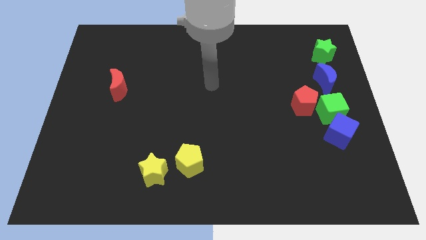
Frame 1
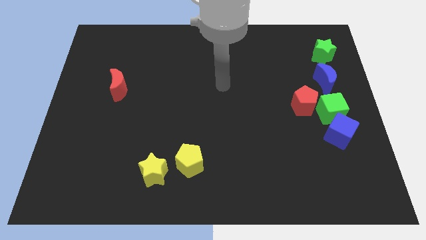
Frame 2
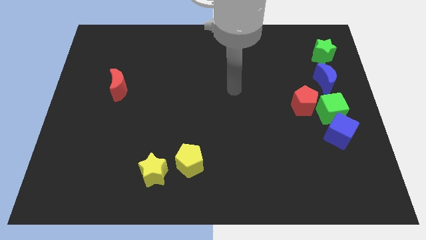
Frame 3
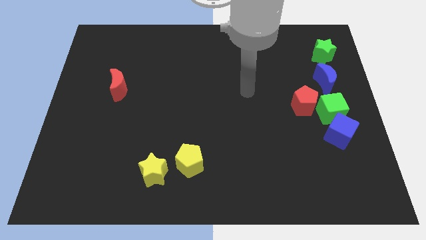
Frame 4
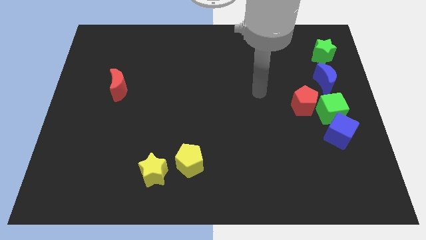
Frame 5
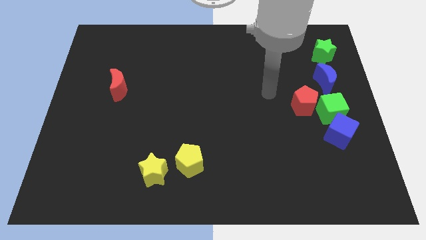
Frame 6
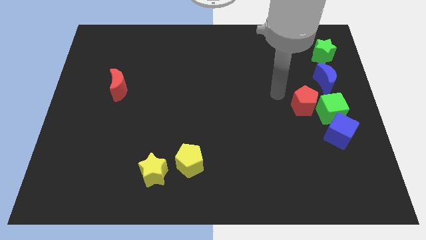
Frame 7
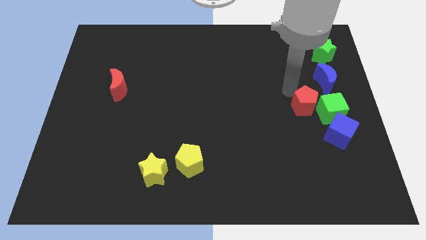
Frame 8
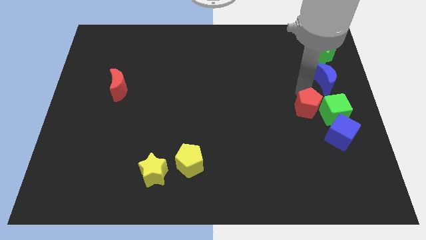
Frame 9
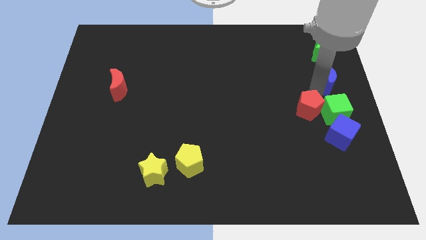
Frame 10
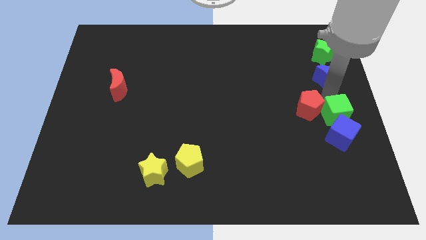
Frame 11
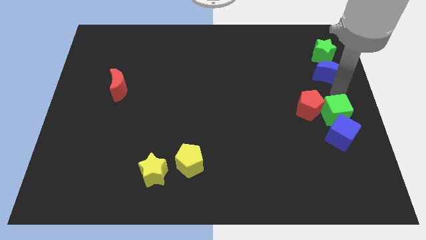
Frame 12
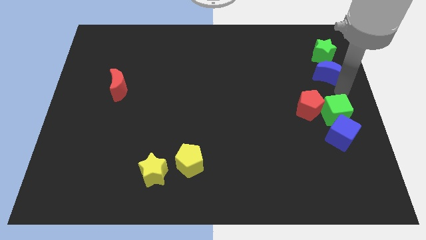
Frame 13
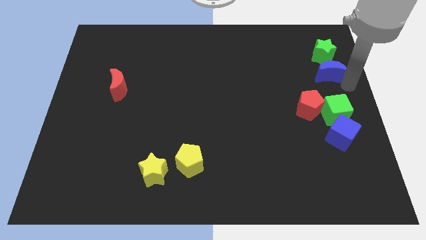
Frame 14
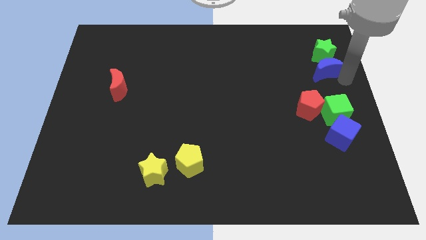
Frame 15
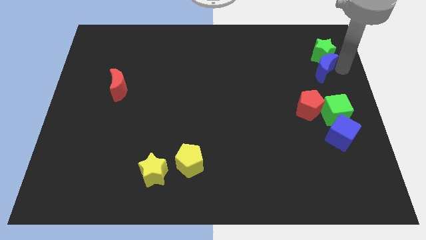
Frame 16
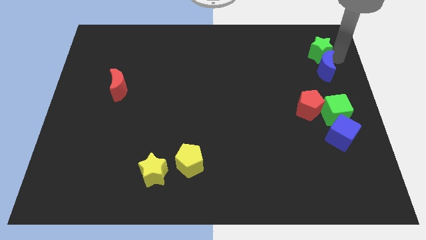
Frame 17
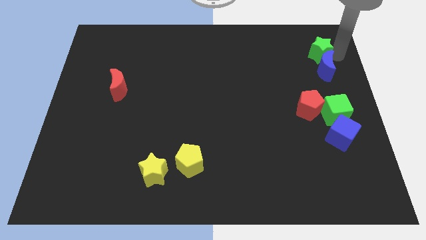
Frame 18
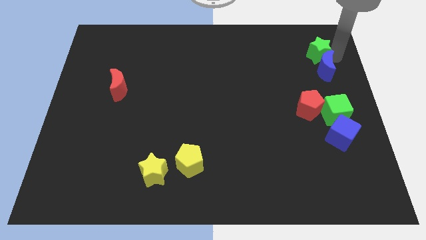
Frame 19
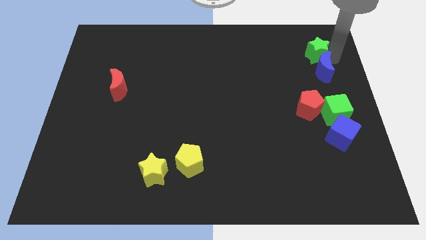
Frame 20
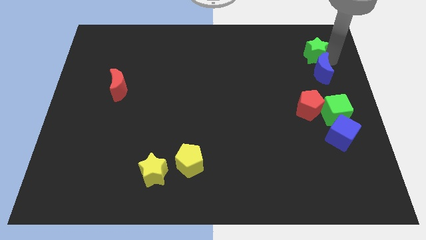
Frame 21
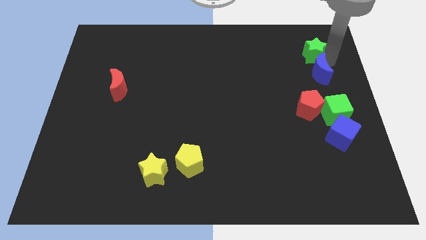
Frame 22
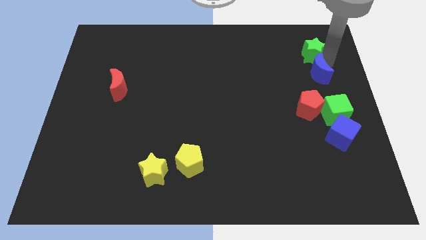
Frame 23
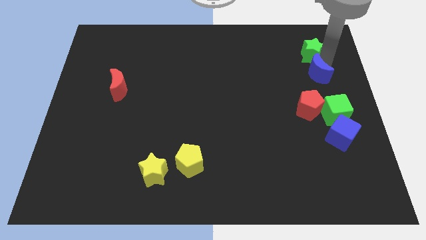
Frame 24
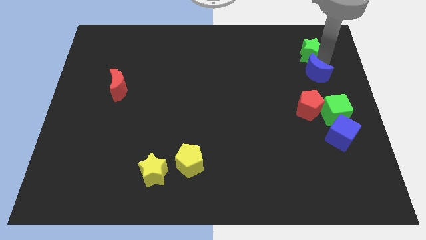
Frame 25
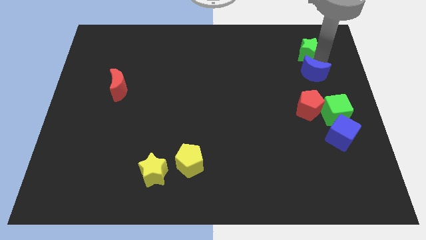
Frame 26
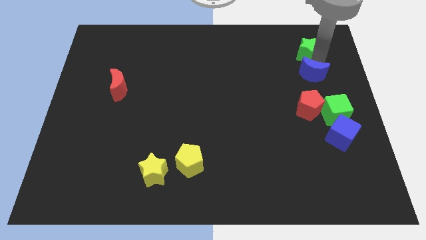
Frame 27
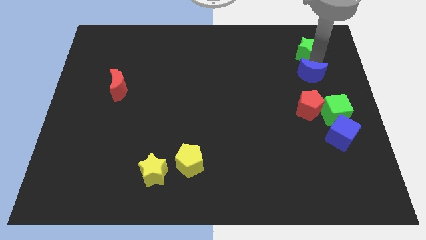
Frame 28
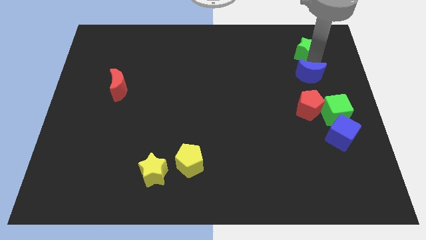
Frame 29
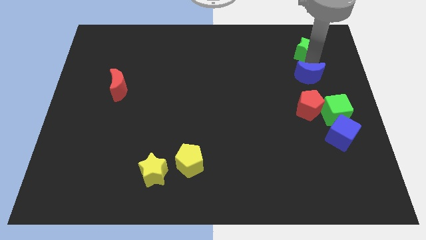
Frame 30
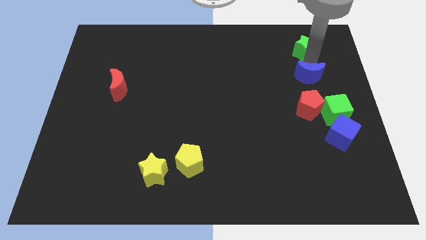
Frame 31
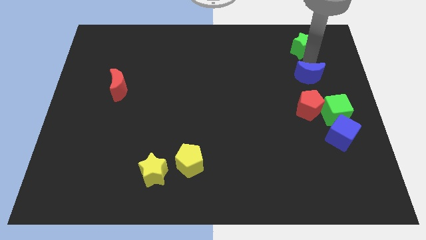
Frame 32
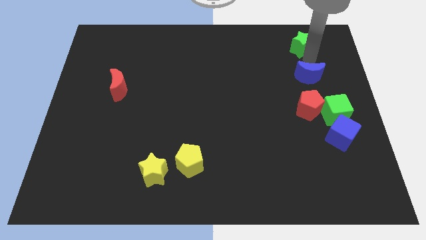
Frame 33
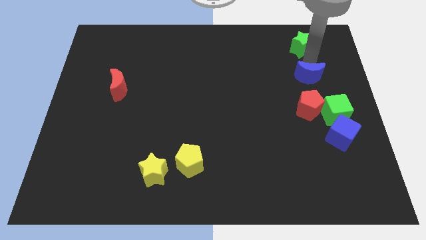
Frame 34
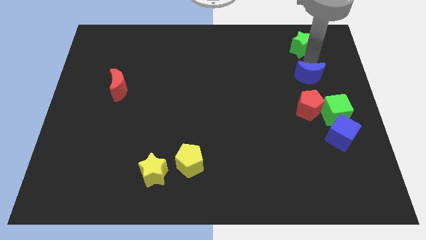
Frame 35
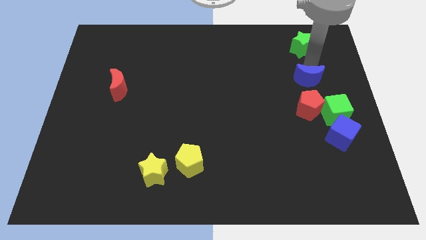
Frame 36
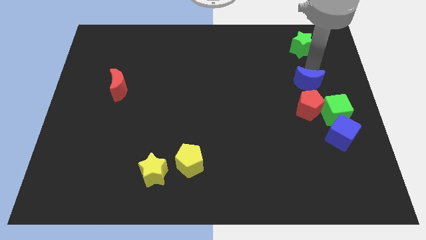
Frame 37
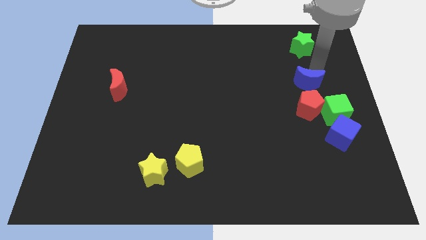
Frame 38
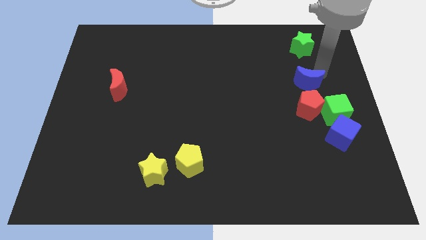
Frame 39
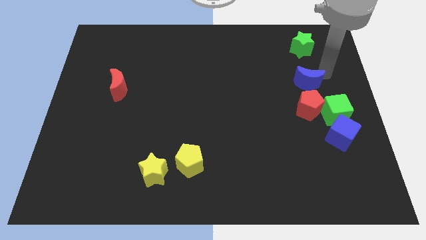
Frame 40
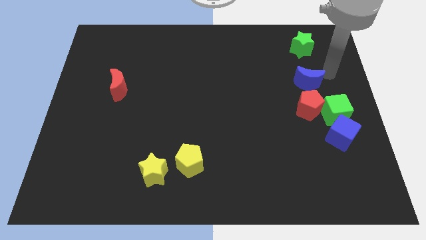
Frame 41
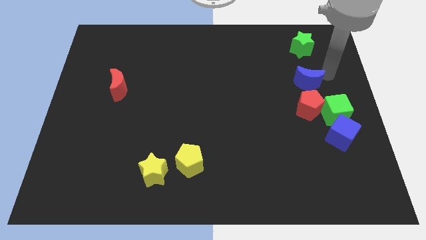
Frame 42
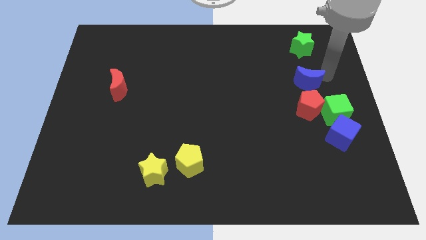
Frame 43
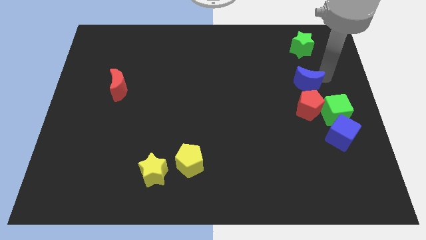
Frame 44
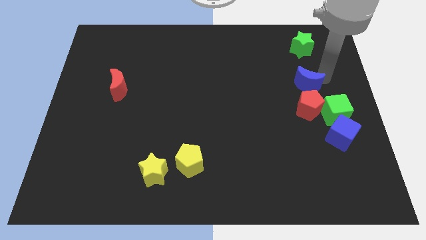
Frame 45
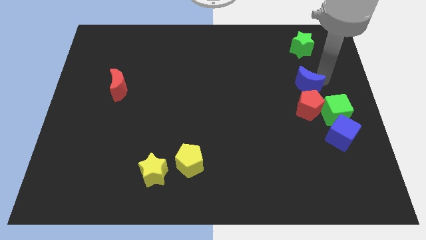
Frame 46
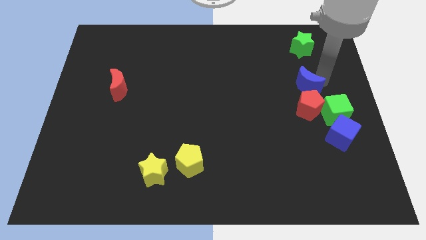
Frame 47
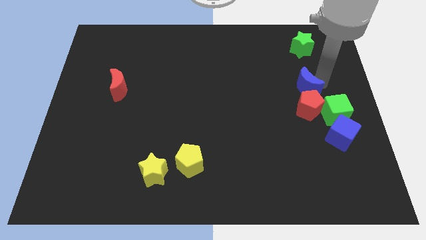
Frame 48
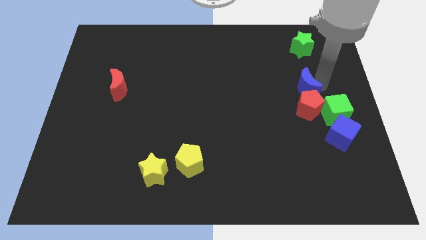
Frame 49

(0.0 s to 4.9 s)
move the blue moon diagonally up and to the left of the red pentagon

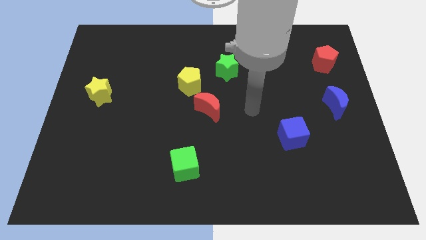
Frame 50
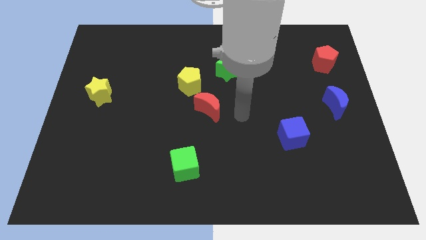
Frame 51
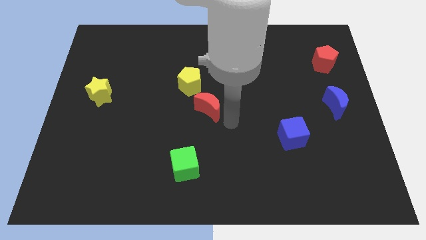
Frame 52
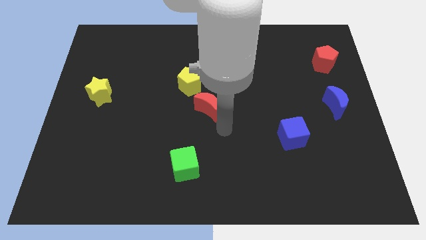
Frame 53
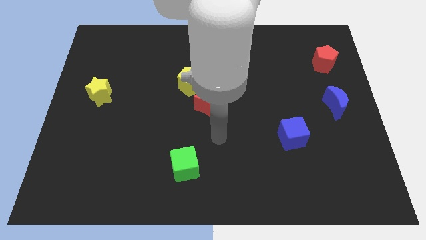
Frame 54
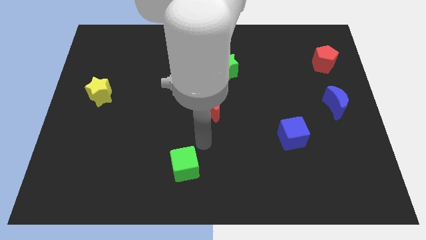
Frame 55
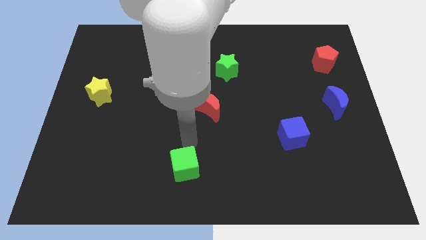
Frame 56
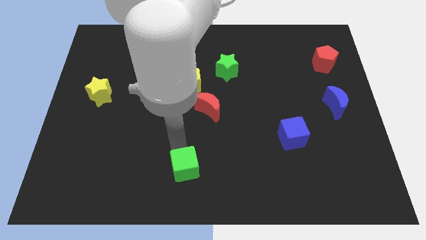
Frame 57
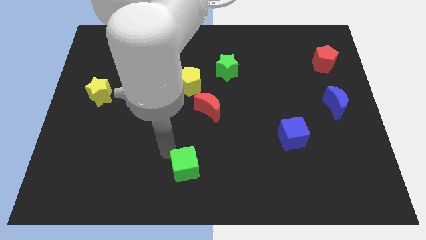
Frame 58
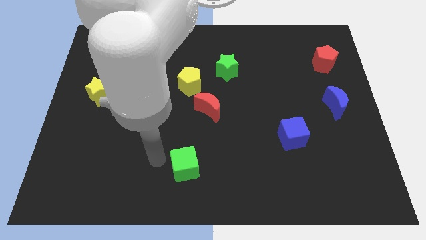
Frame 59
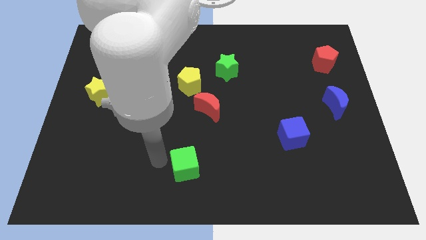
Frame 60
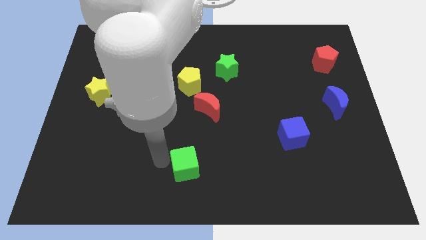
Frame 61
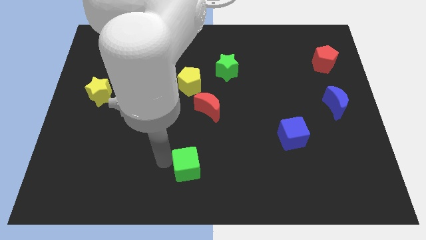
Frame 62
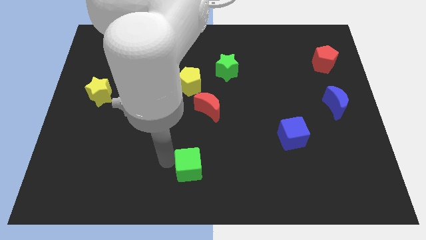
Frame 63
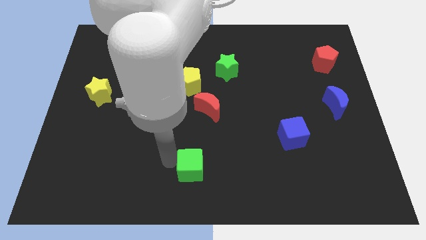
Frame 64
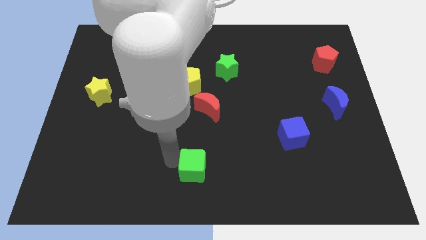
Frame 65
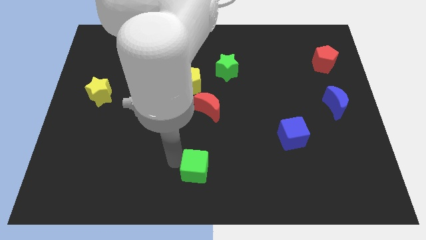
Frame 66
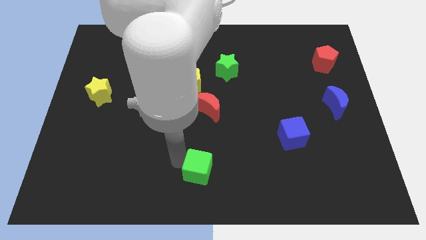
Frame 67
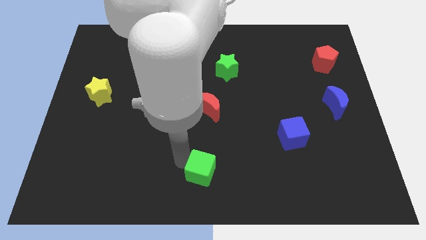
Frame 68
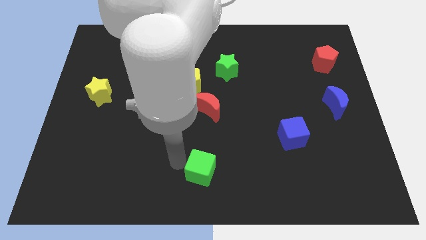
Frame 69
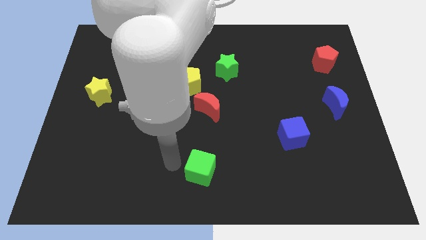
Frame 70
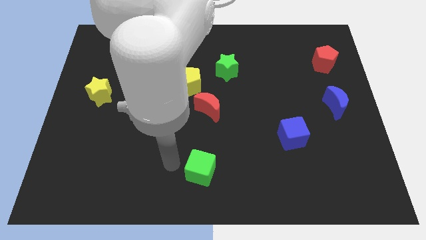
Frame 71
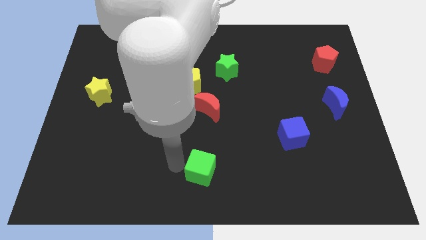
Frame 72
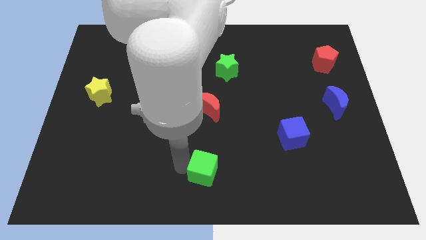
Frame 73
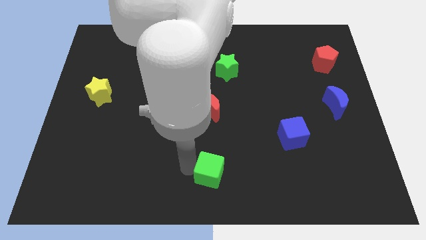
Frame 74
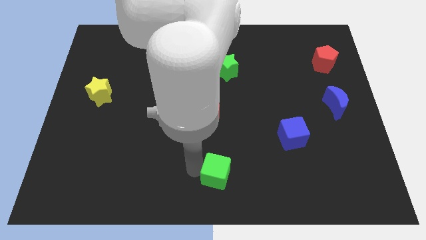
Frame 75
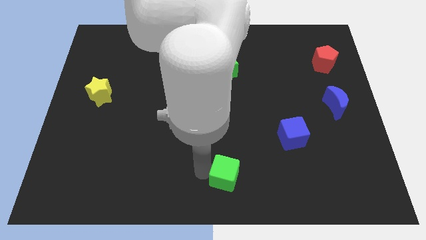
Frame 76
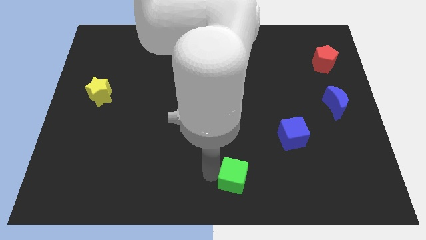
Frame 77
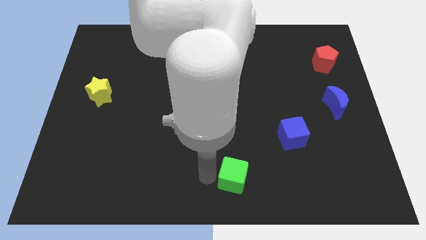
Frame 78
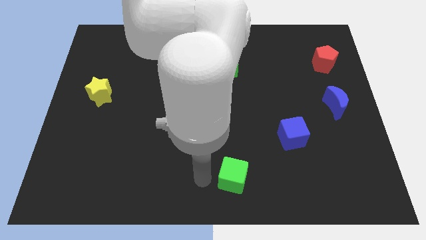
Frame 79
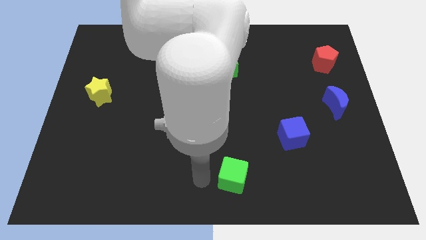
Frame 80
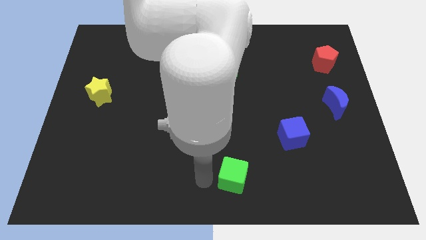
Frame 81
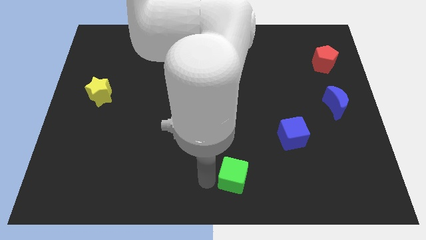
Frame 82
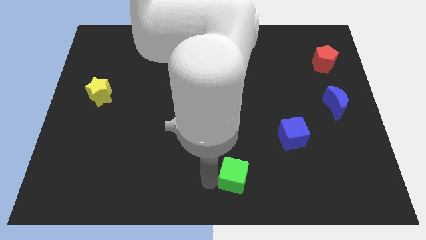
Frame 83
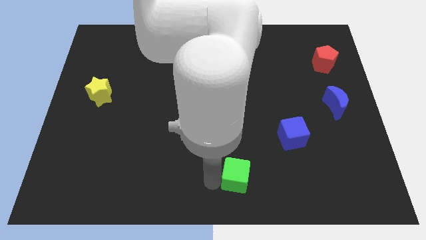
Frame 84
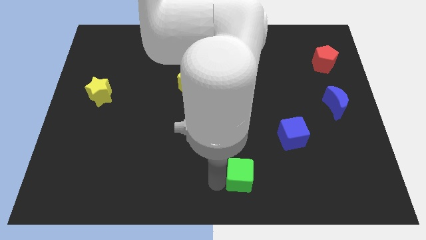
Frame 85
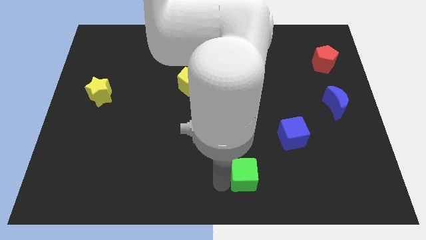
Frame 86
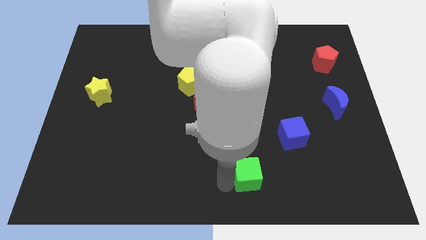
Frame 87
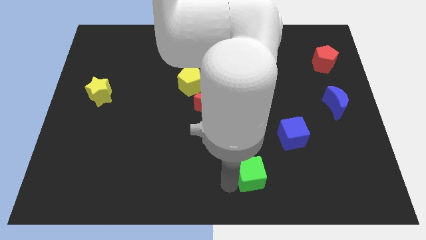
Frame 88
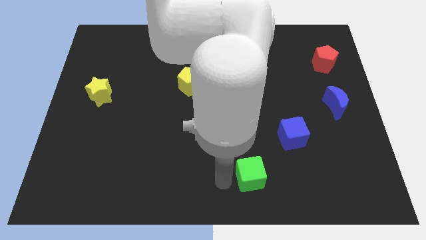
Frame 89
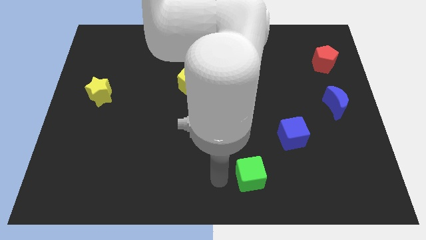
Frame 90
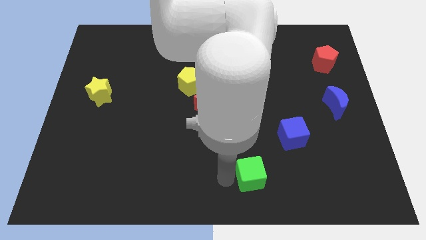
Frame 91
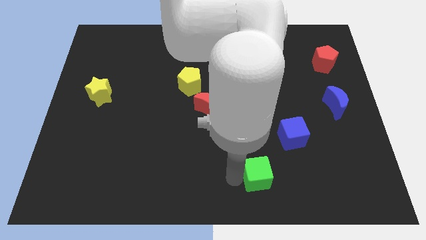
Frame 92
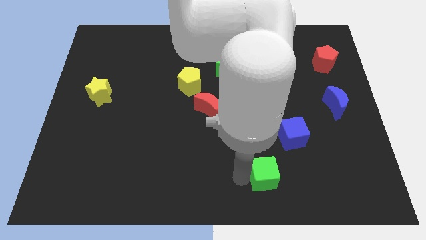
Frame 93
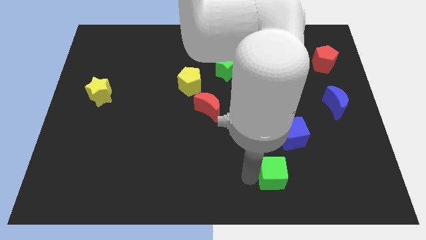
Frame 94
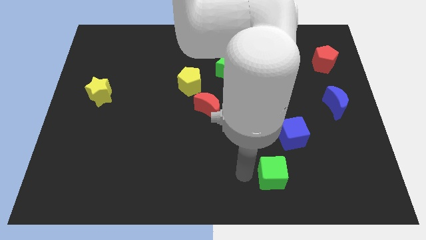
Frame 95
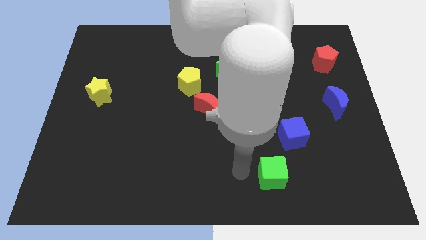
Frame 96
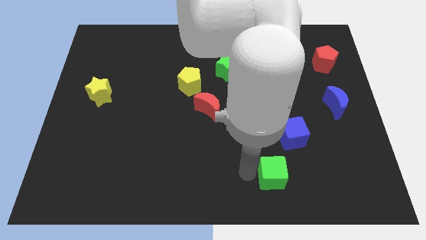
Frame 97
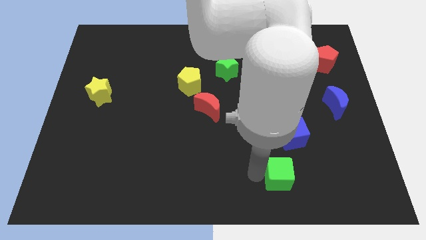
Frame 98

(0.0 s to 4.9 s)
push the green cube below the blue cube
